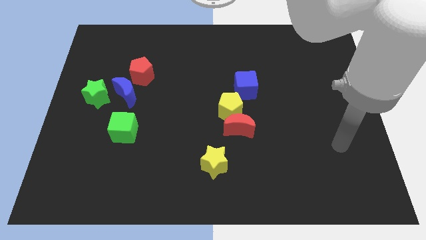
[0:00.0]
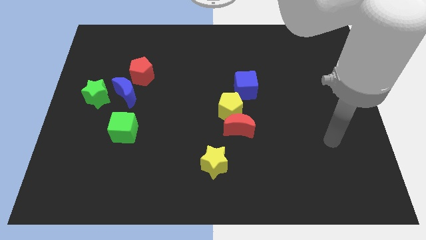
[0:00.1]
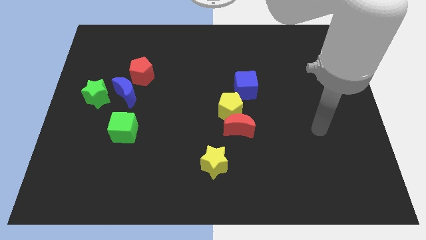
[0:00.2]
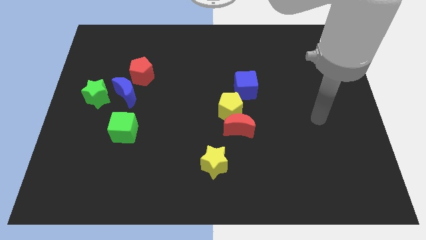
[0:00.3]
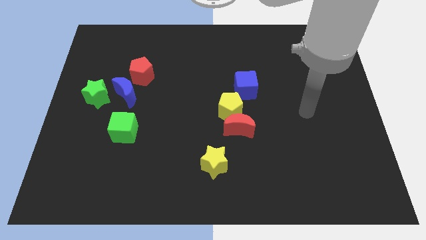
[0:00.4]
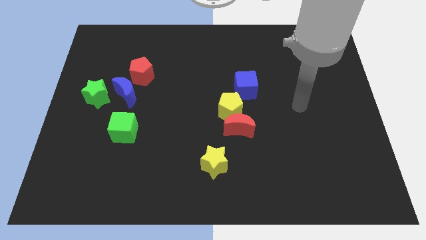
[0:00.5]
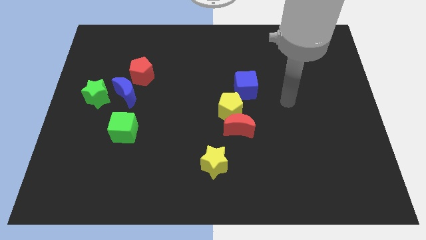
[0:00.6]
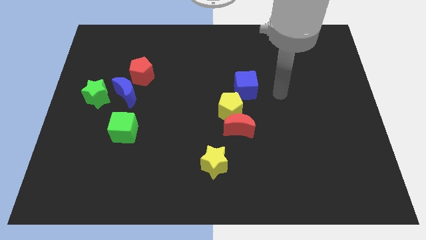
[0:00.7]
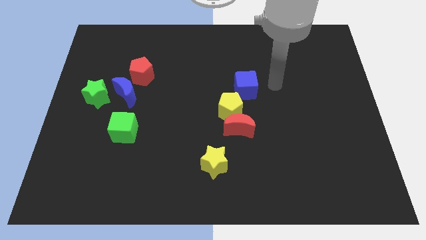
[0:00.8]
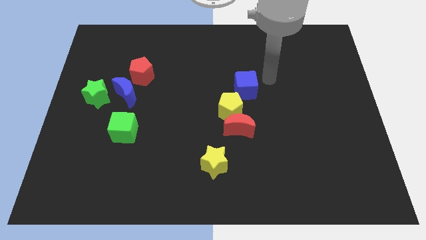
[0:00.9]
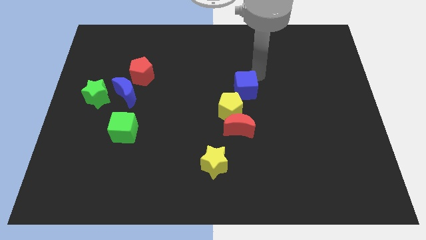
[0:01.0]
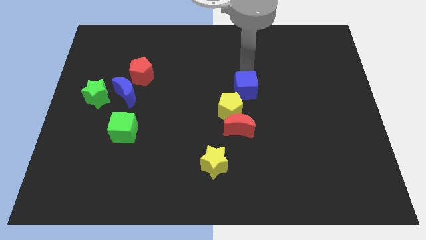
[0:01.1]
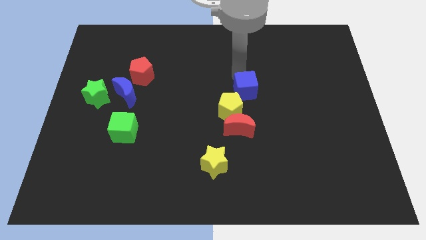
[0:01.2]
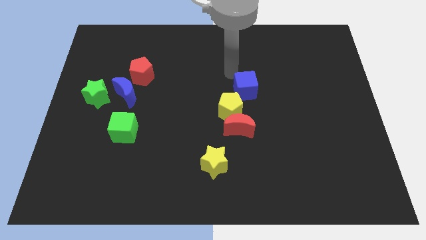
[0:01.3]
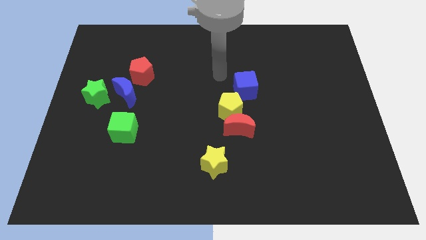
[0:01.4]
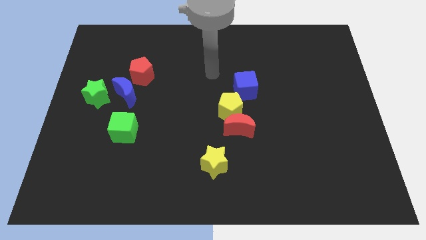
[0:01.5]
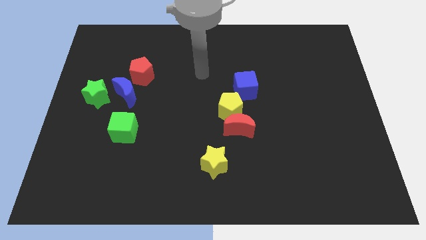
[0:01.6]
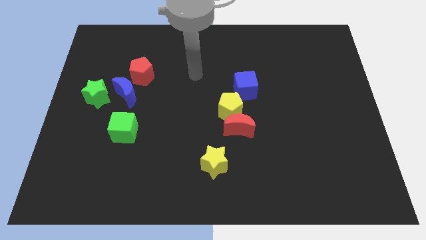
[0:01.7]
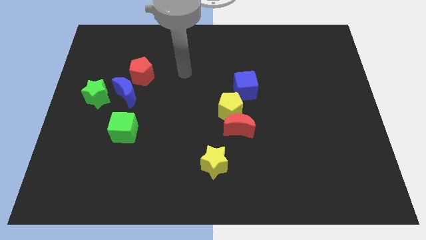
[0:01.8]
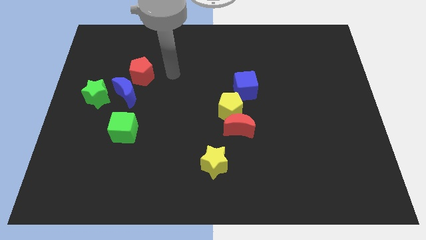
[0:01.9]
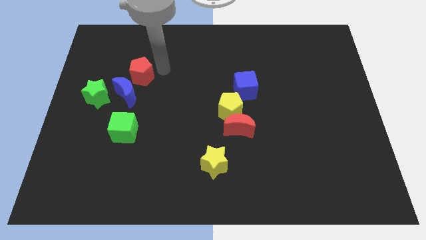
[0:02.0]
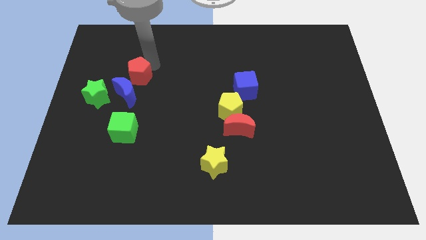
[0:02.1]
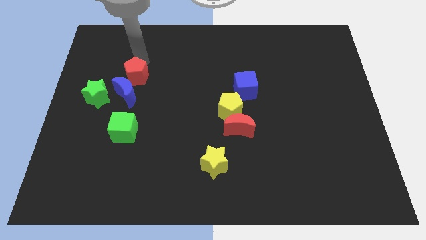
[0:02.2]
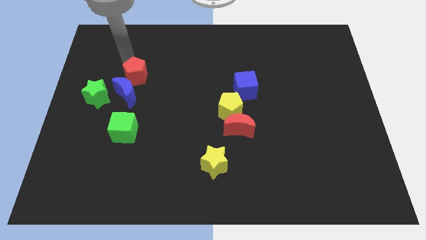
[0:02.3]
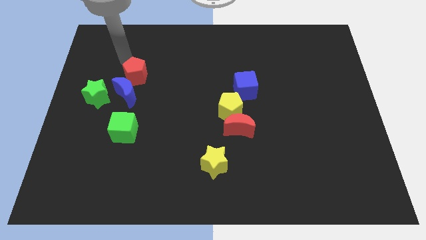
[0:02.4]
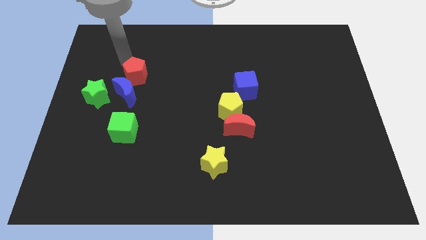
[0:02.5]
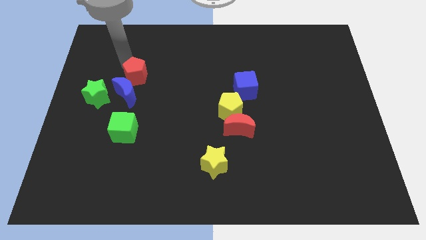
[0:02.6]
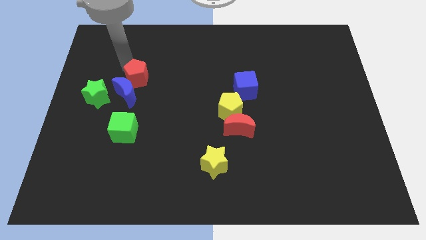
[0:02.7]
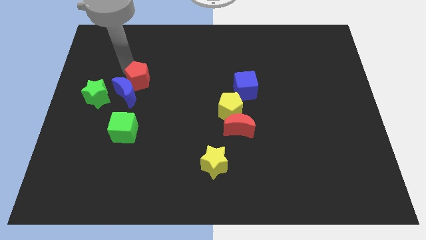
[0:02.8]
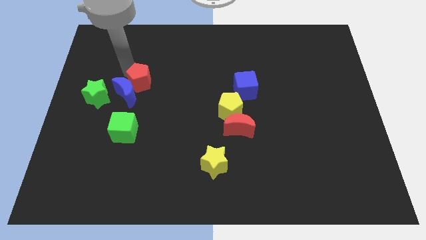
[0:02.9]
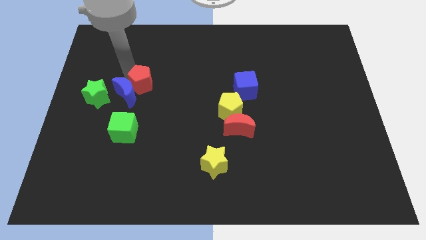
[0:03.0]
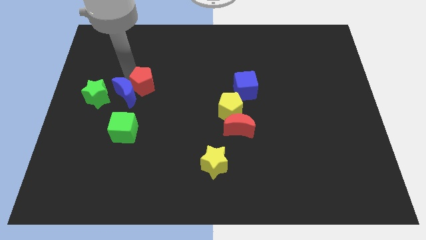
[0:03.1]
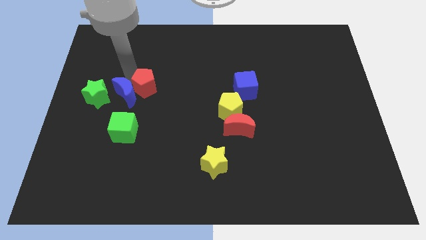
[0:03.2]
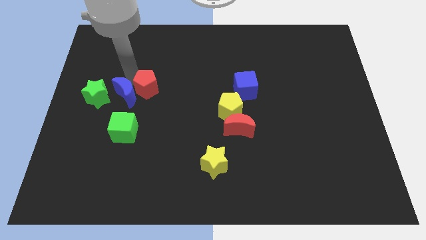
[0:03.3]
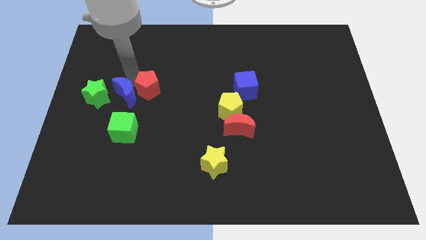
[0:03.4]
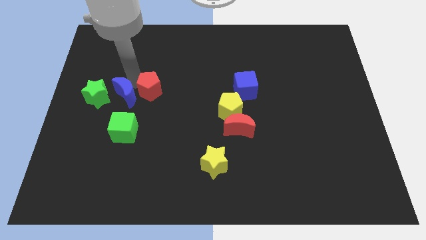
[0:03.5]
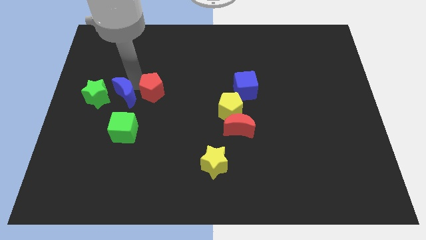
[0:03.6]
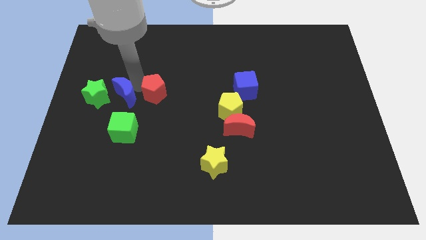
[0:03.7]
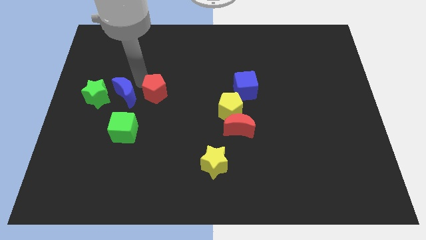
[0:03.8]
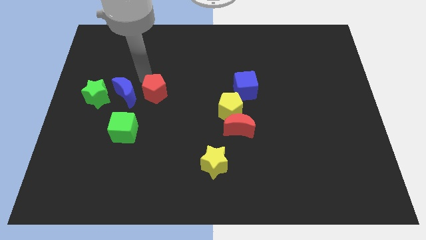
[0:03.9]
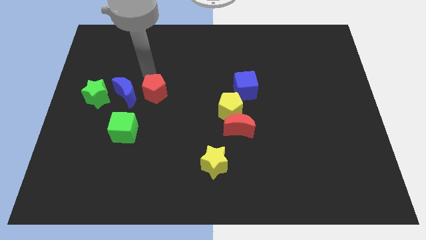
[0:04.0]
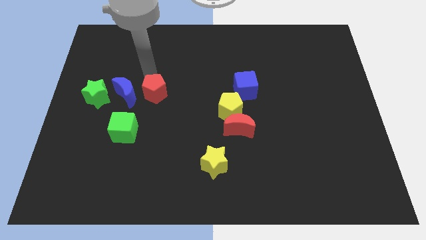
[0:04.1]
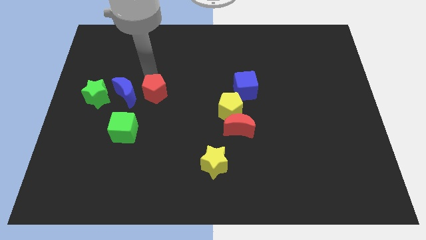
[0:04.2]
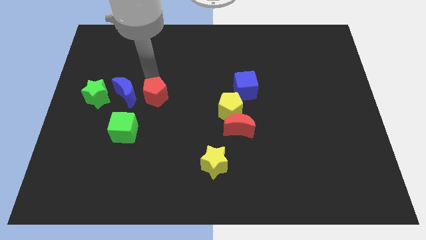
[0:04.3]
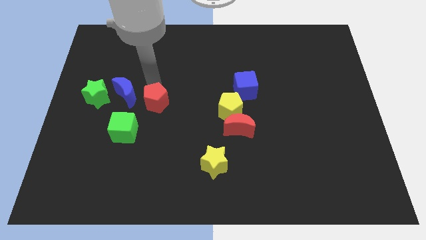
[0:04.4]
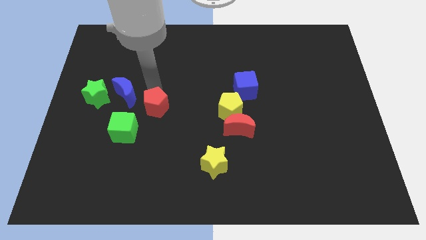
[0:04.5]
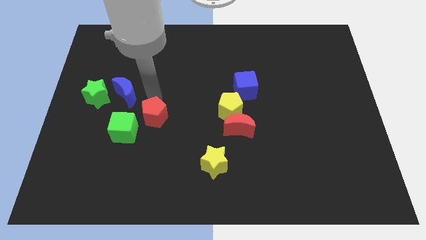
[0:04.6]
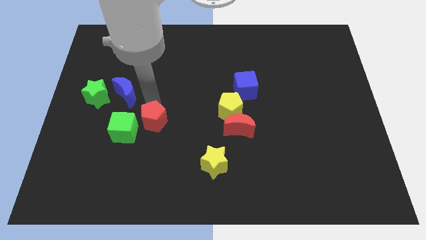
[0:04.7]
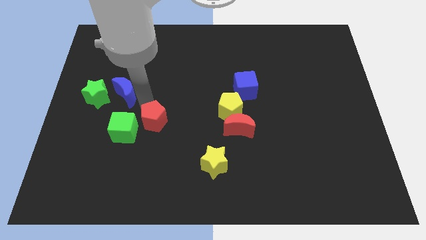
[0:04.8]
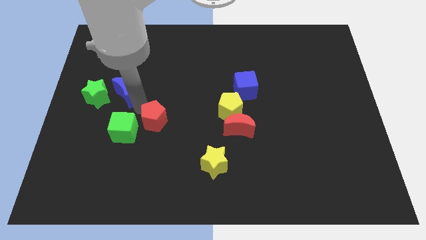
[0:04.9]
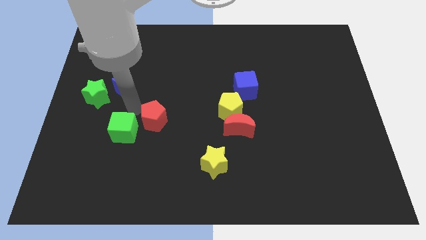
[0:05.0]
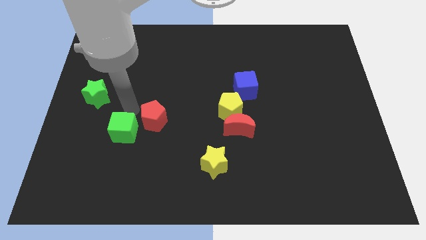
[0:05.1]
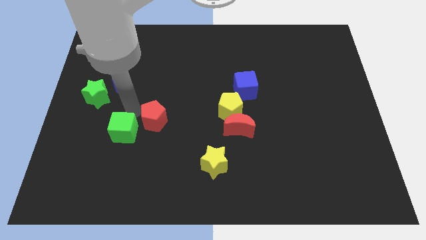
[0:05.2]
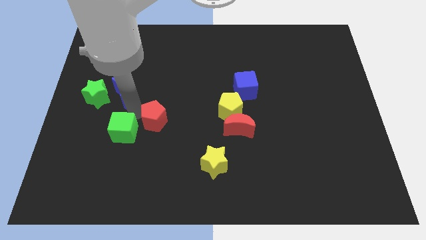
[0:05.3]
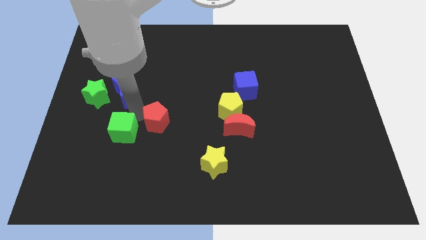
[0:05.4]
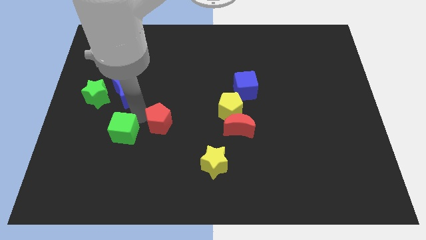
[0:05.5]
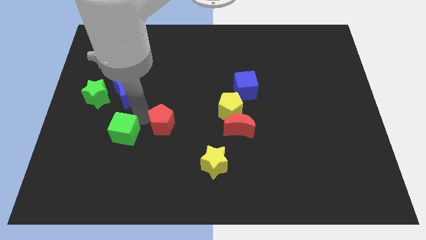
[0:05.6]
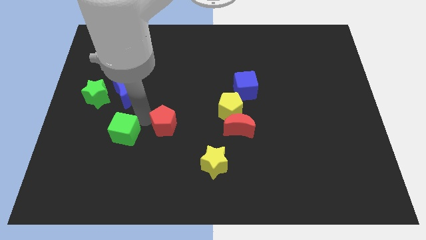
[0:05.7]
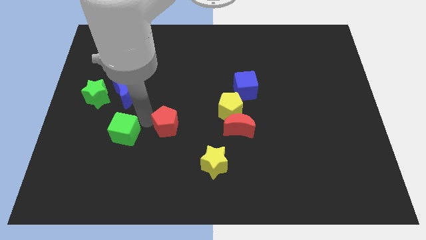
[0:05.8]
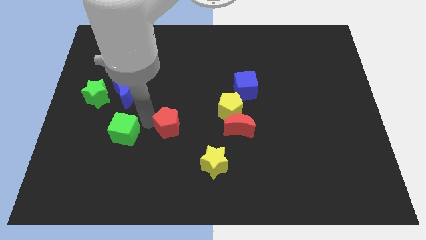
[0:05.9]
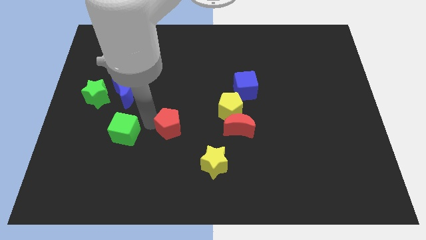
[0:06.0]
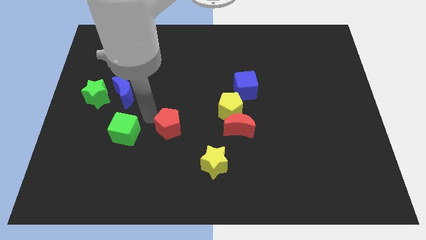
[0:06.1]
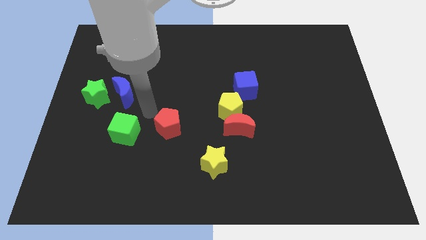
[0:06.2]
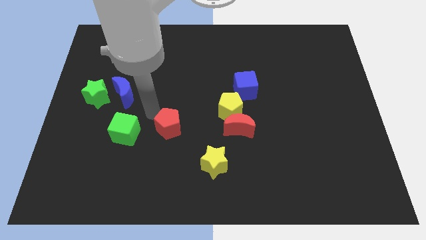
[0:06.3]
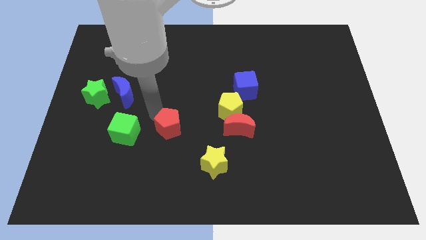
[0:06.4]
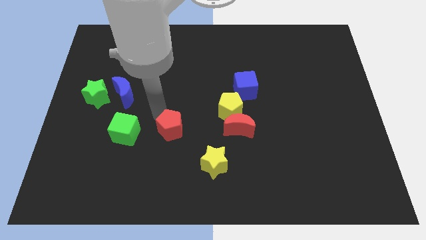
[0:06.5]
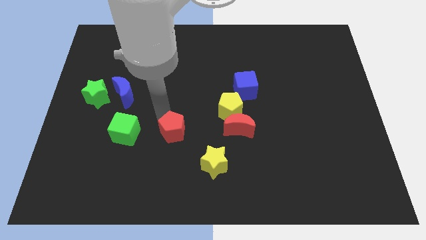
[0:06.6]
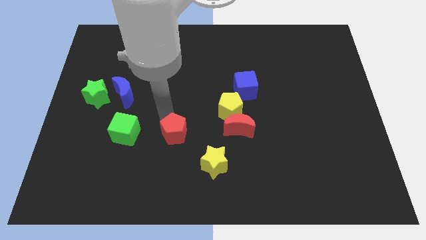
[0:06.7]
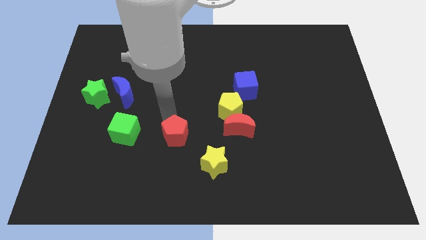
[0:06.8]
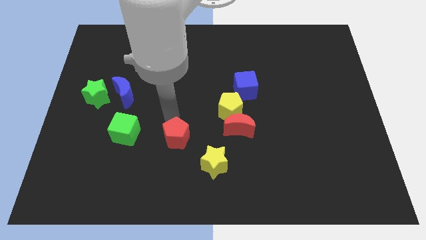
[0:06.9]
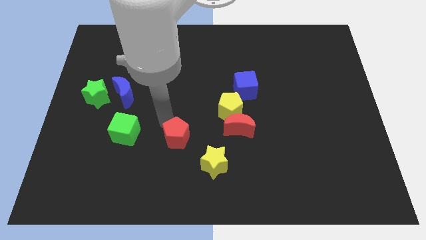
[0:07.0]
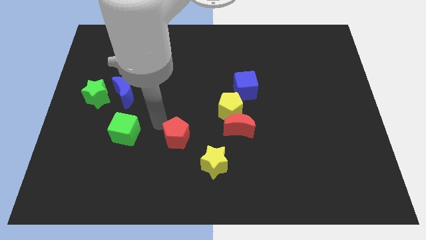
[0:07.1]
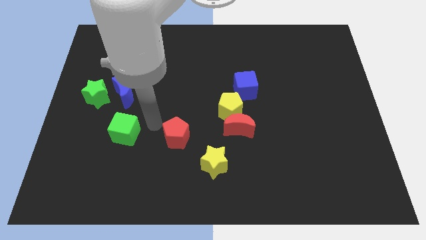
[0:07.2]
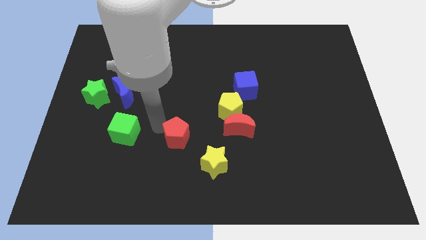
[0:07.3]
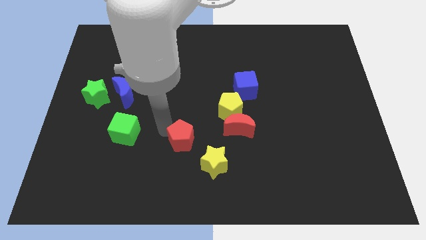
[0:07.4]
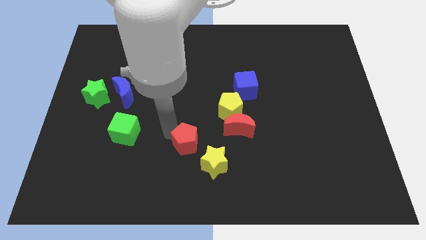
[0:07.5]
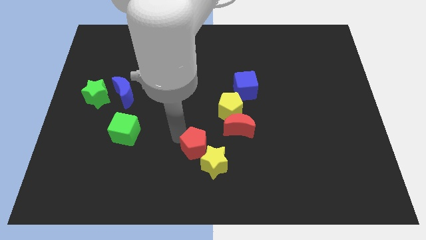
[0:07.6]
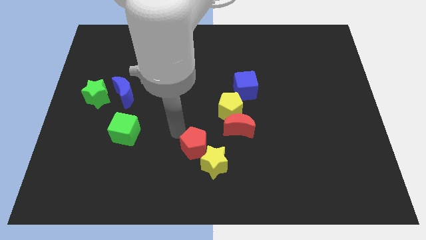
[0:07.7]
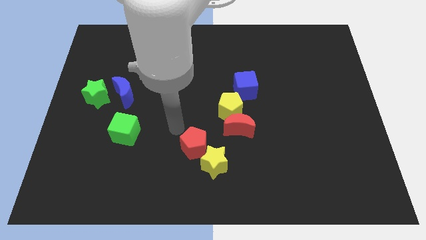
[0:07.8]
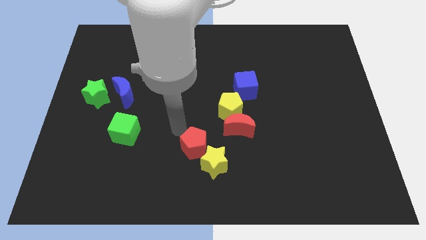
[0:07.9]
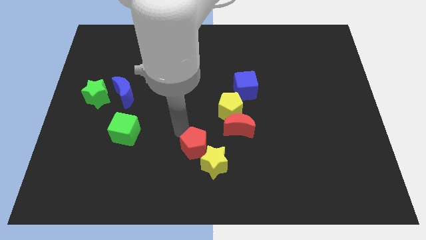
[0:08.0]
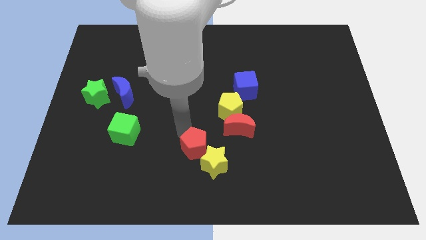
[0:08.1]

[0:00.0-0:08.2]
put the red pentagon towards the yellow star
